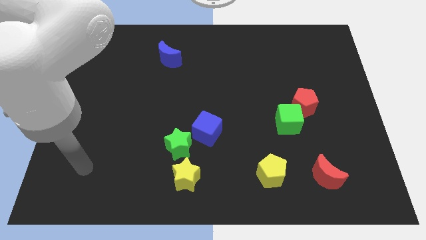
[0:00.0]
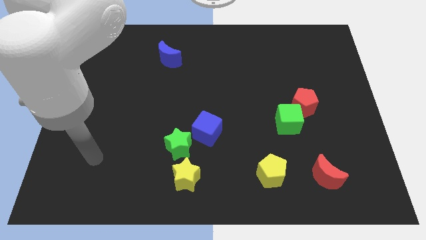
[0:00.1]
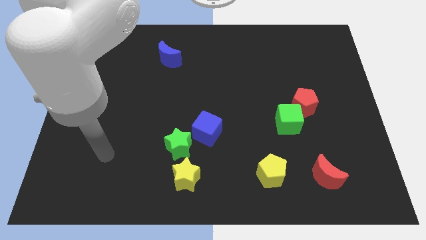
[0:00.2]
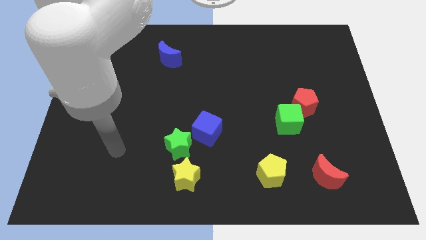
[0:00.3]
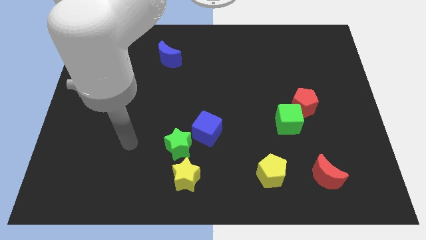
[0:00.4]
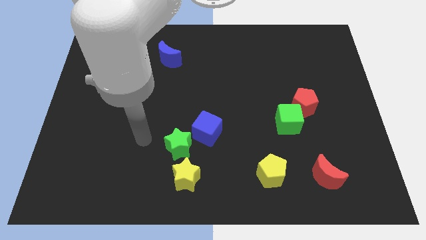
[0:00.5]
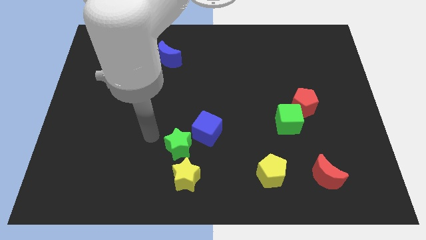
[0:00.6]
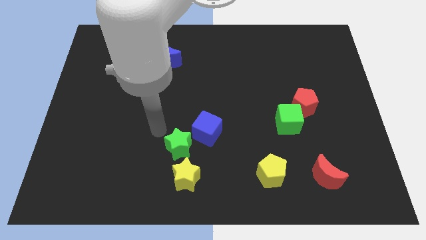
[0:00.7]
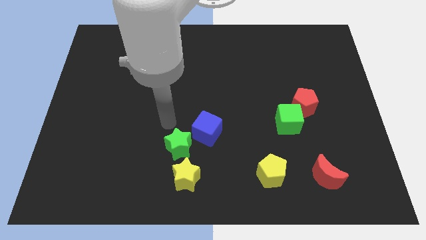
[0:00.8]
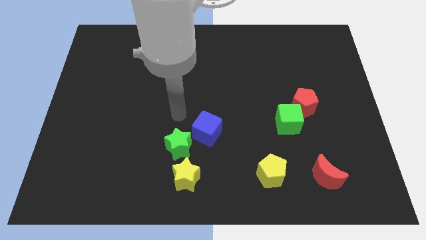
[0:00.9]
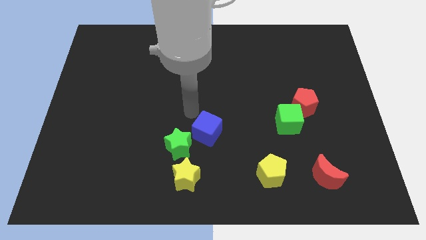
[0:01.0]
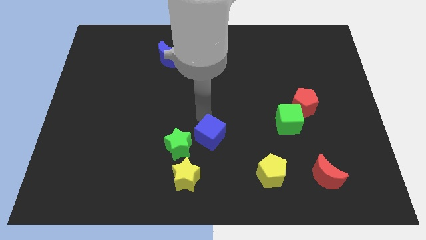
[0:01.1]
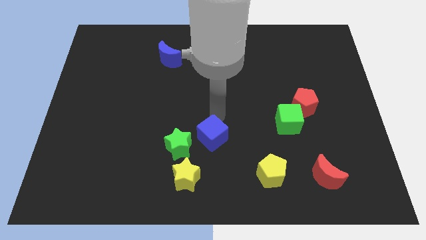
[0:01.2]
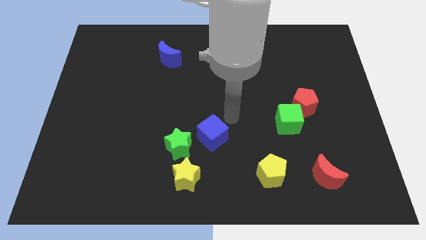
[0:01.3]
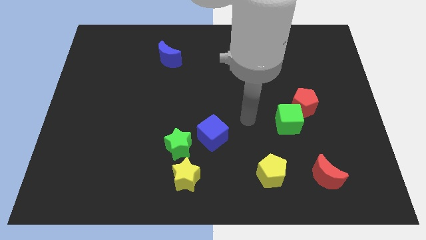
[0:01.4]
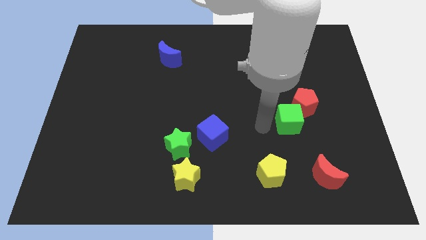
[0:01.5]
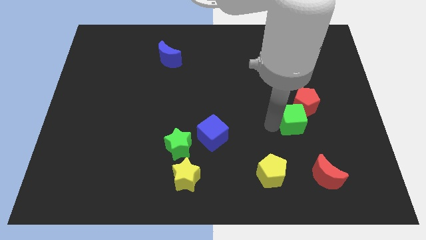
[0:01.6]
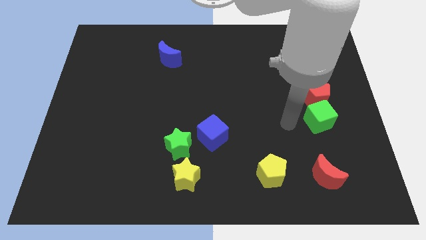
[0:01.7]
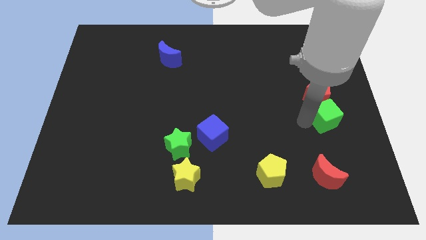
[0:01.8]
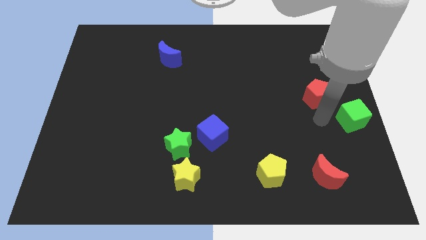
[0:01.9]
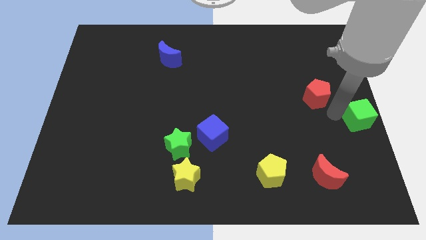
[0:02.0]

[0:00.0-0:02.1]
pull the red pentagon apart from the green cube

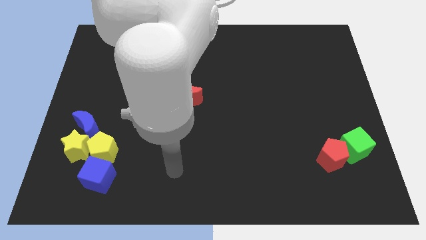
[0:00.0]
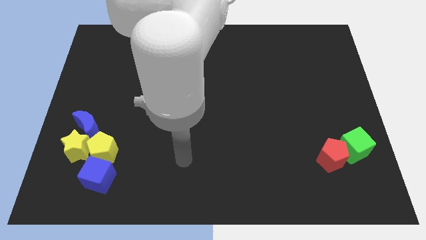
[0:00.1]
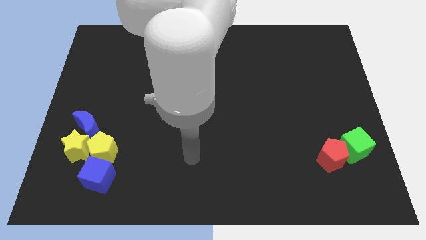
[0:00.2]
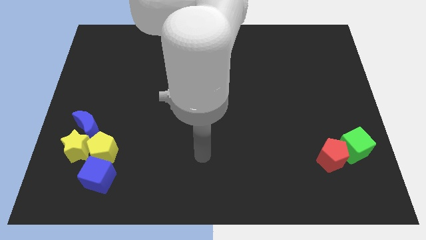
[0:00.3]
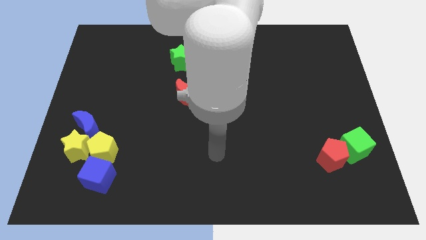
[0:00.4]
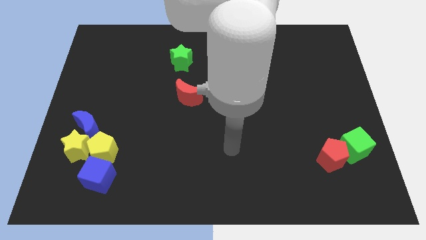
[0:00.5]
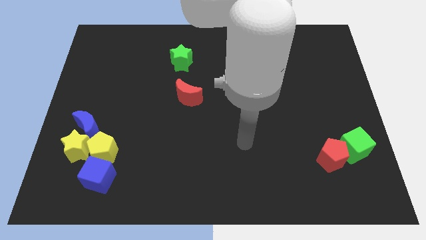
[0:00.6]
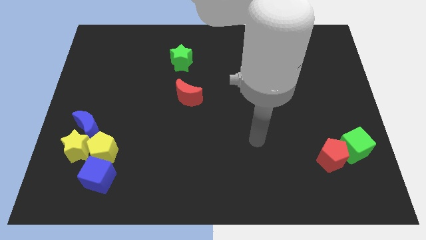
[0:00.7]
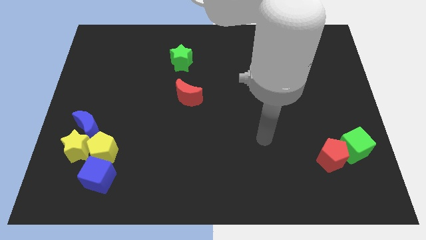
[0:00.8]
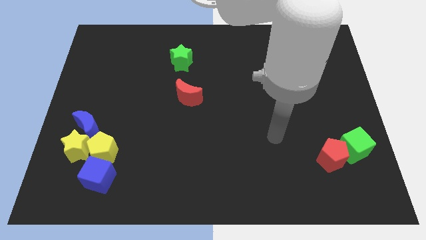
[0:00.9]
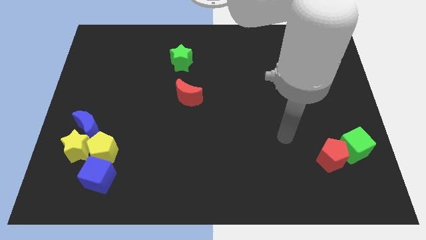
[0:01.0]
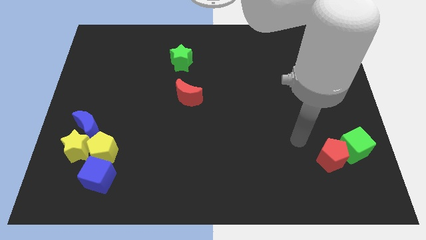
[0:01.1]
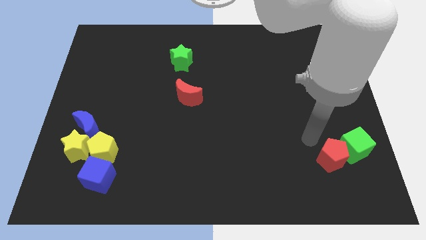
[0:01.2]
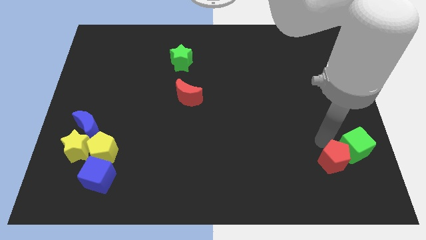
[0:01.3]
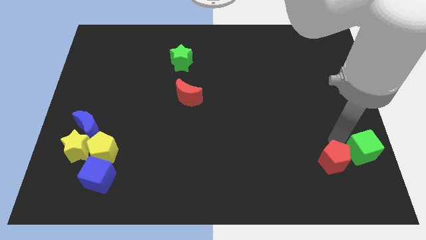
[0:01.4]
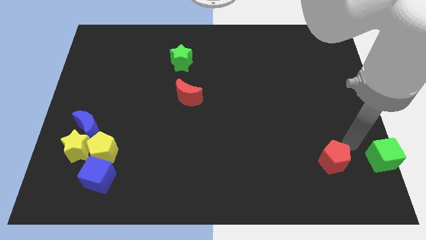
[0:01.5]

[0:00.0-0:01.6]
move the red pentagon away from the green cube

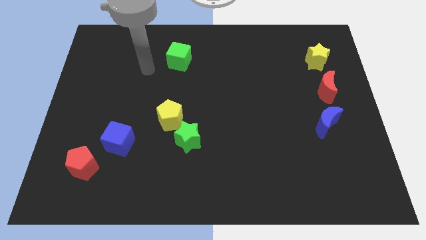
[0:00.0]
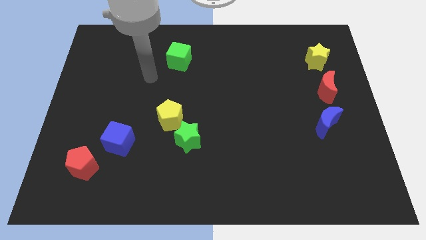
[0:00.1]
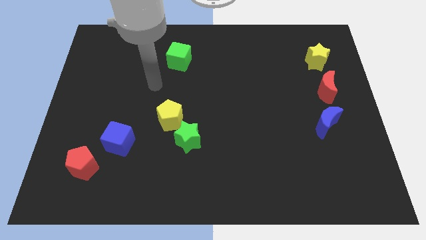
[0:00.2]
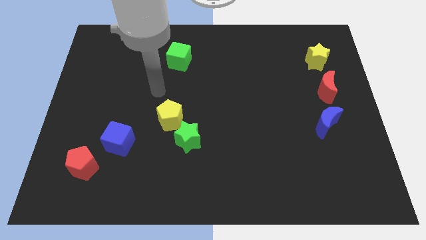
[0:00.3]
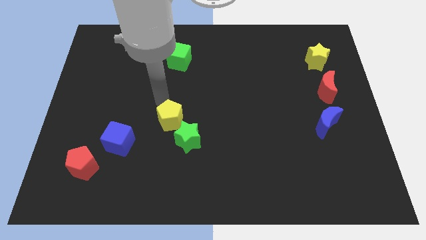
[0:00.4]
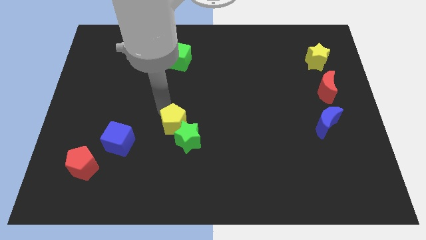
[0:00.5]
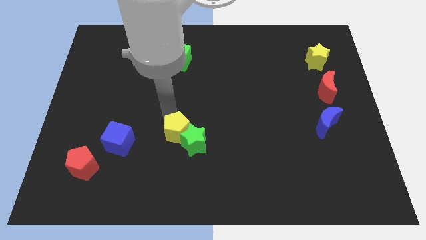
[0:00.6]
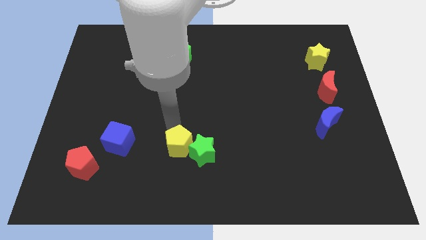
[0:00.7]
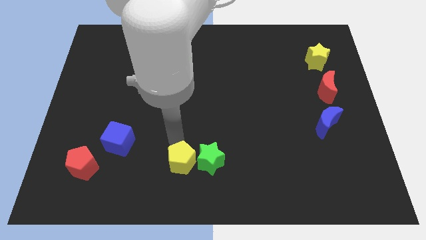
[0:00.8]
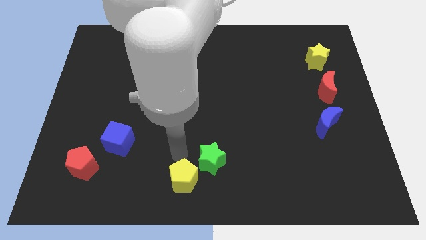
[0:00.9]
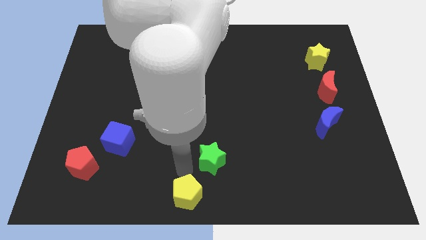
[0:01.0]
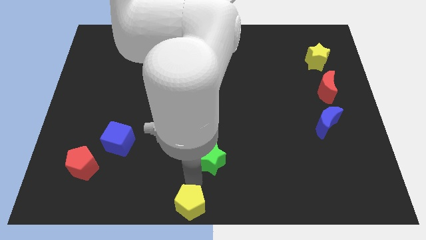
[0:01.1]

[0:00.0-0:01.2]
separate the green star from the yellow pentagon

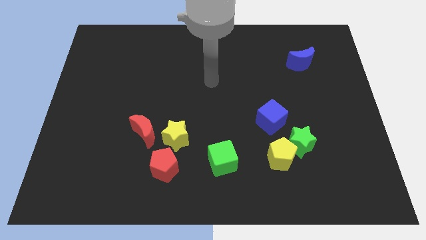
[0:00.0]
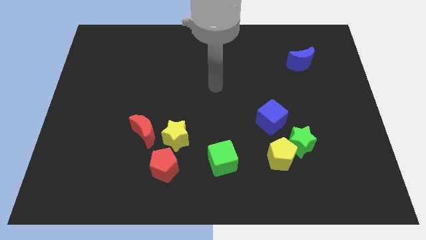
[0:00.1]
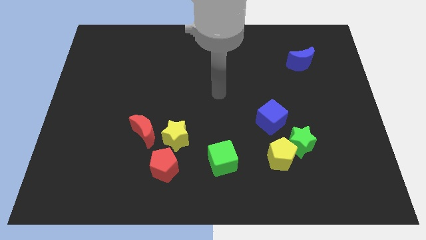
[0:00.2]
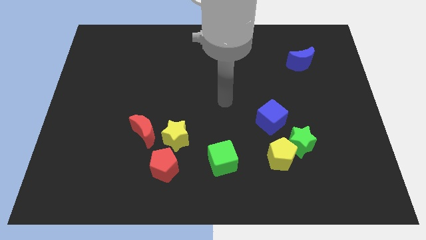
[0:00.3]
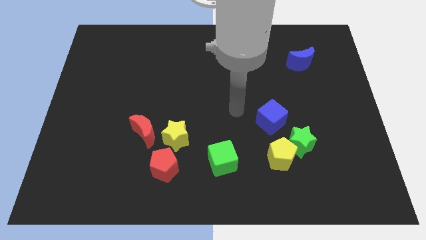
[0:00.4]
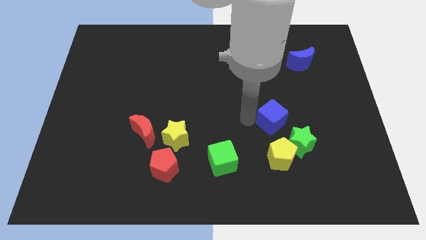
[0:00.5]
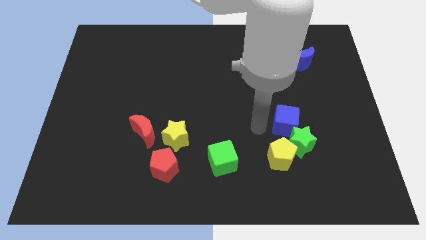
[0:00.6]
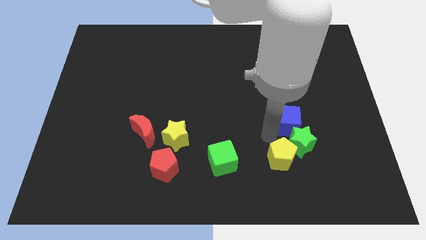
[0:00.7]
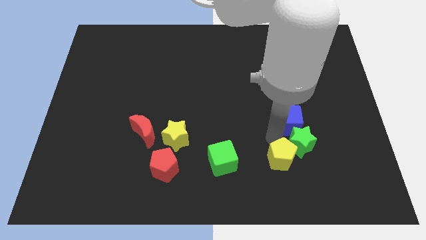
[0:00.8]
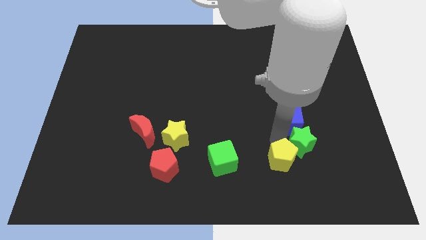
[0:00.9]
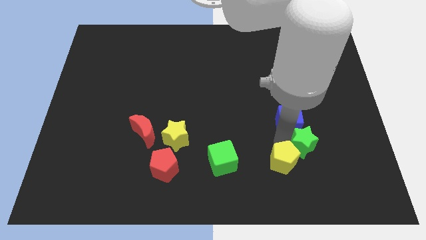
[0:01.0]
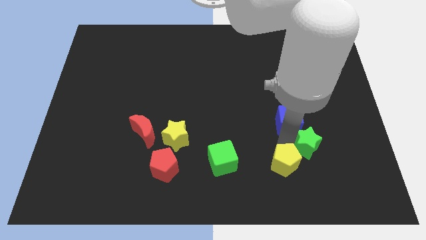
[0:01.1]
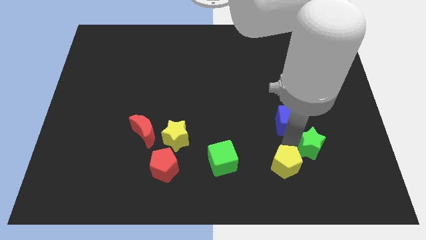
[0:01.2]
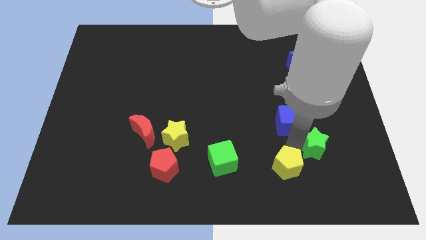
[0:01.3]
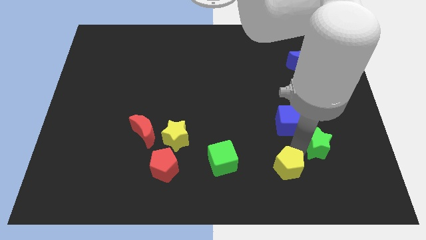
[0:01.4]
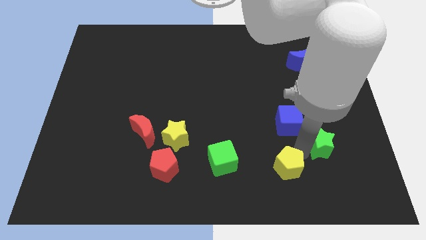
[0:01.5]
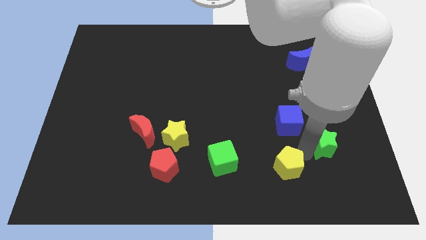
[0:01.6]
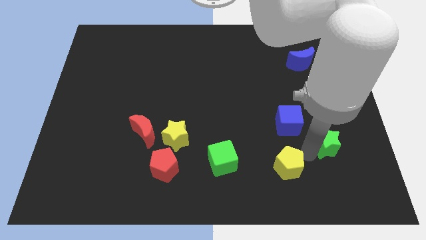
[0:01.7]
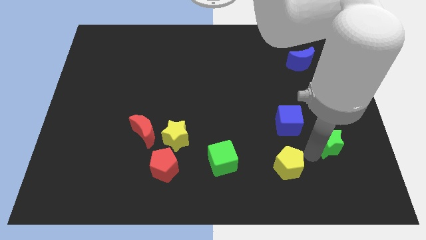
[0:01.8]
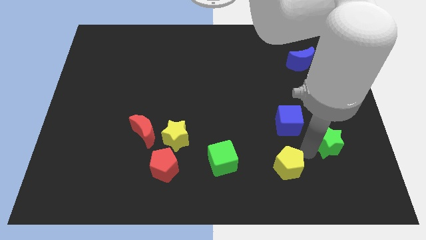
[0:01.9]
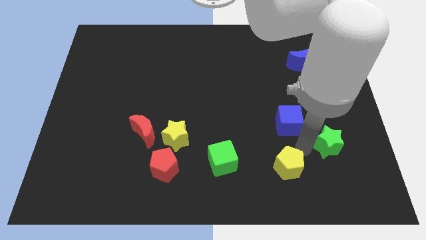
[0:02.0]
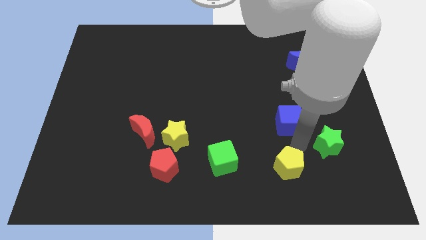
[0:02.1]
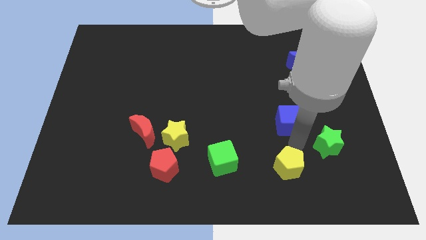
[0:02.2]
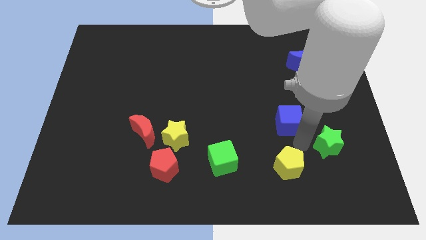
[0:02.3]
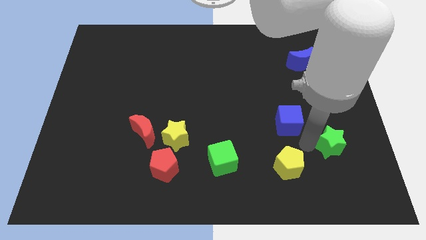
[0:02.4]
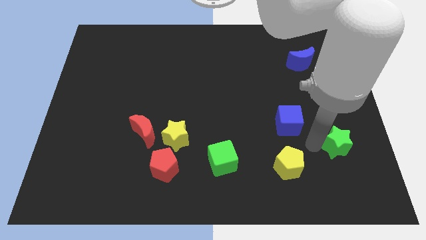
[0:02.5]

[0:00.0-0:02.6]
pull the green star apart from the yellow pentagon and blue cube

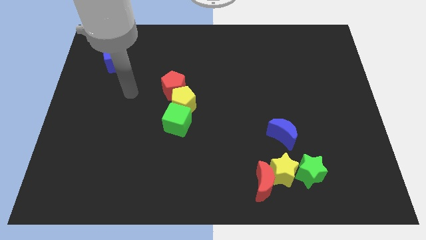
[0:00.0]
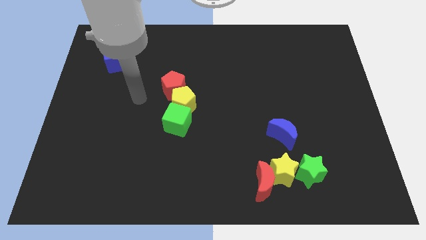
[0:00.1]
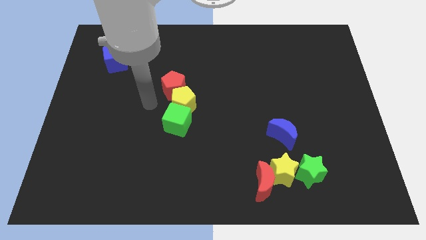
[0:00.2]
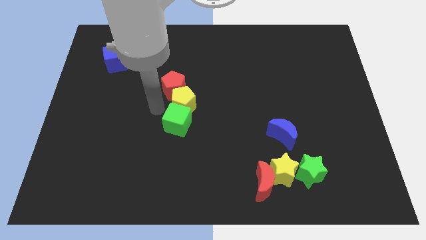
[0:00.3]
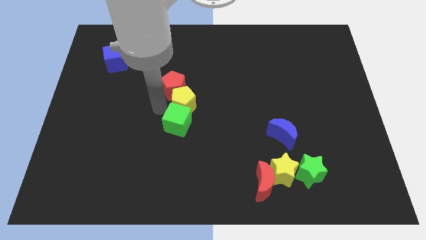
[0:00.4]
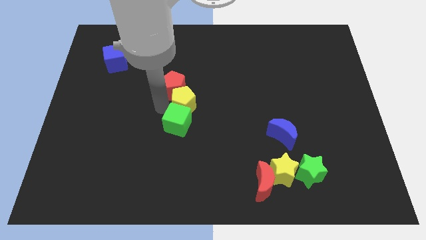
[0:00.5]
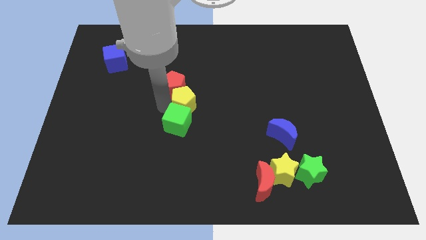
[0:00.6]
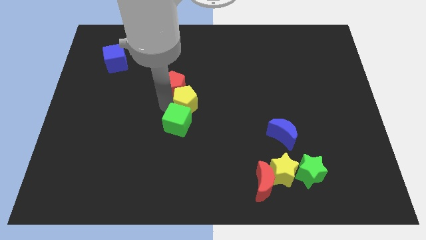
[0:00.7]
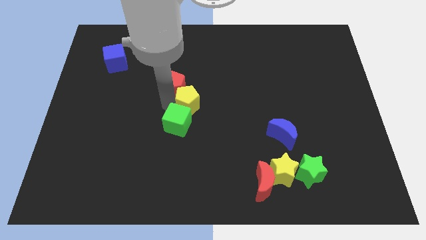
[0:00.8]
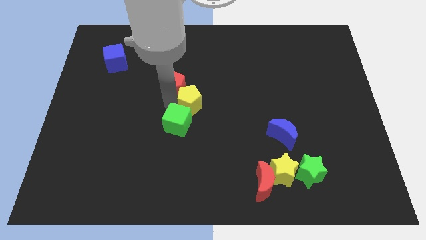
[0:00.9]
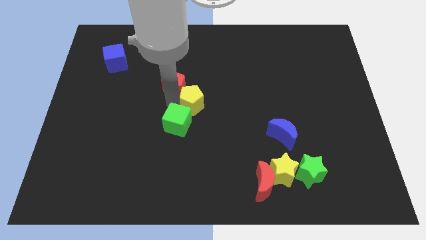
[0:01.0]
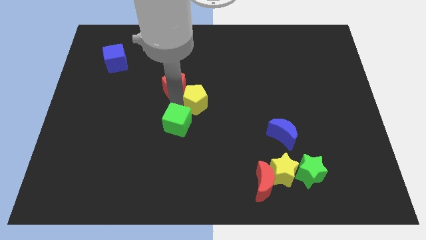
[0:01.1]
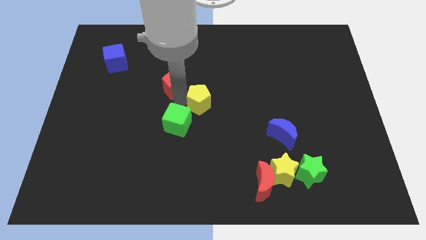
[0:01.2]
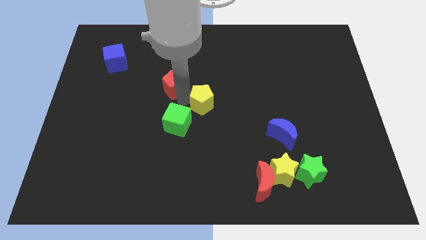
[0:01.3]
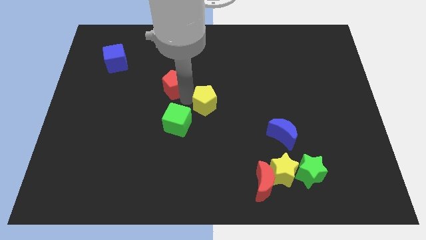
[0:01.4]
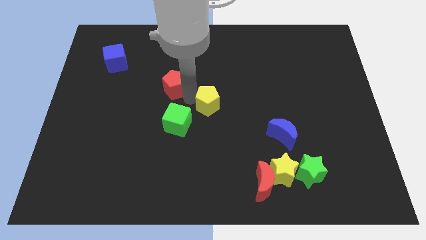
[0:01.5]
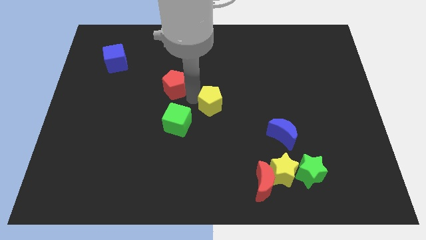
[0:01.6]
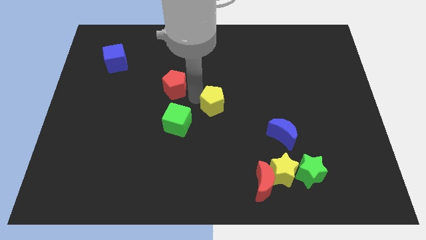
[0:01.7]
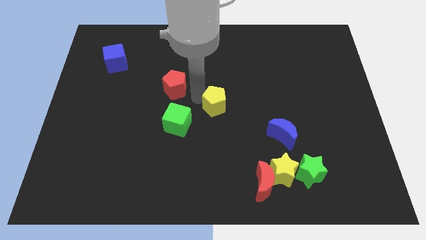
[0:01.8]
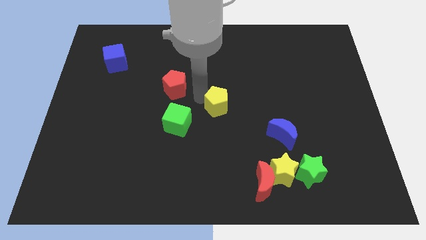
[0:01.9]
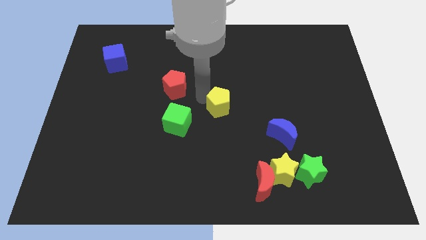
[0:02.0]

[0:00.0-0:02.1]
pull the yellow pentagon apart from the green cube and red pentagon
